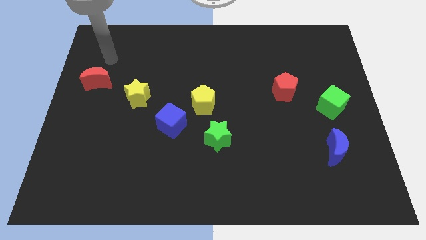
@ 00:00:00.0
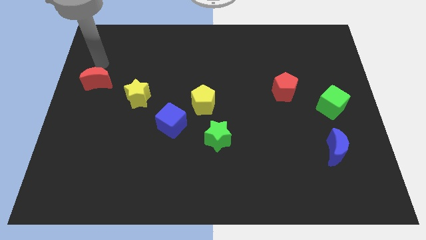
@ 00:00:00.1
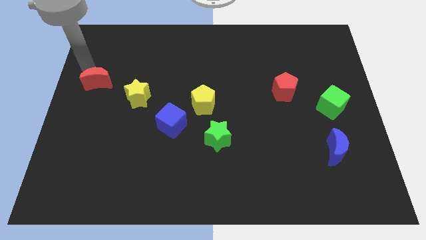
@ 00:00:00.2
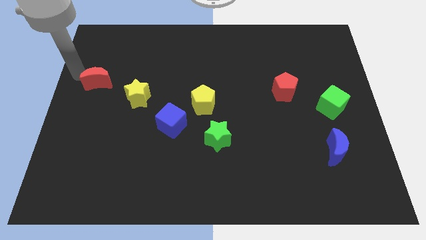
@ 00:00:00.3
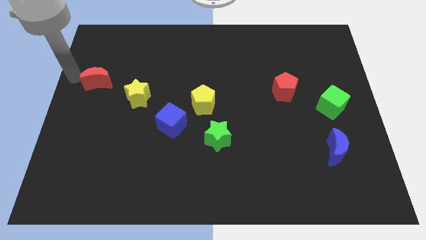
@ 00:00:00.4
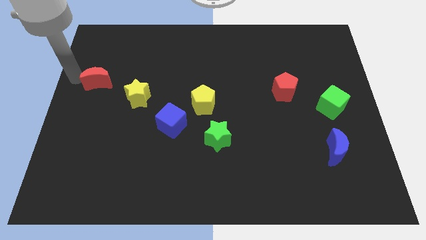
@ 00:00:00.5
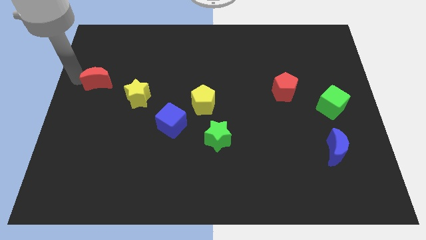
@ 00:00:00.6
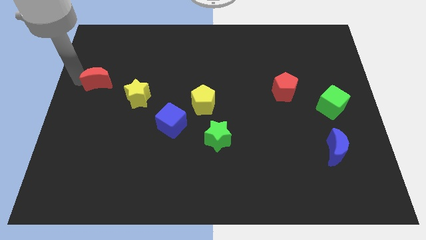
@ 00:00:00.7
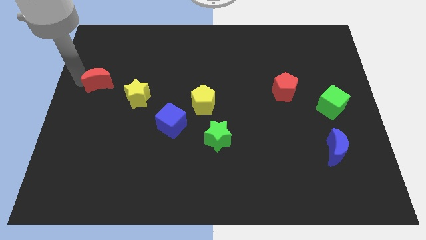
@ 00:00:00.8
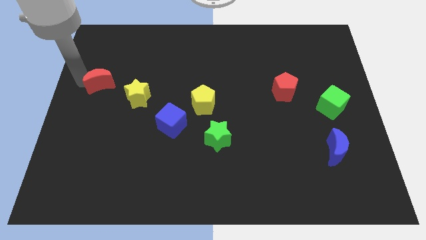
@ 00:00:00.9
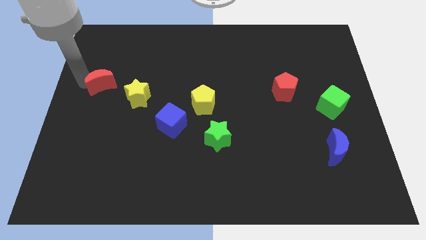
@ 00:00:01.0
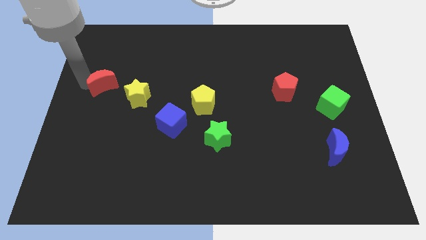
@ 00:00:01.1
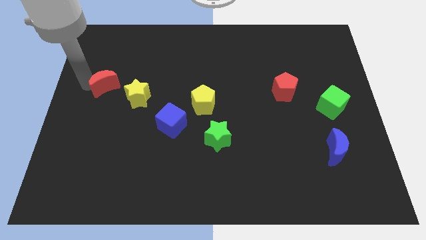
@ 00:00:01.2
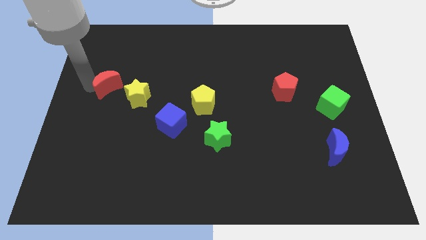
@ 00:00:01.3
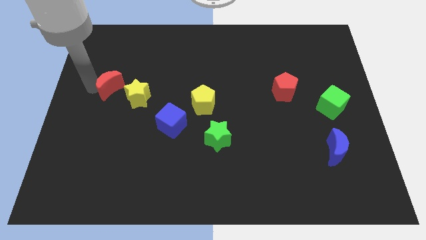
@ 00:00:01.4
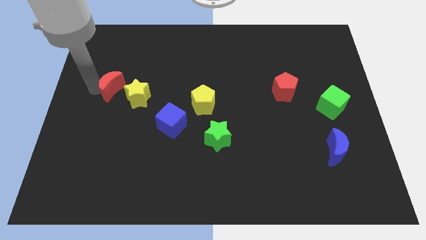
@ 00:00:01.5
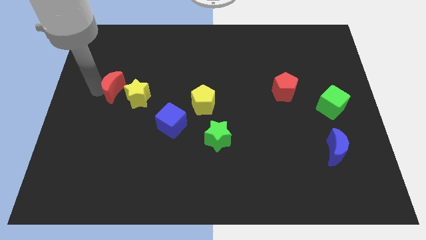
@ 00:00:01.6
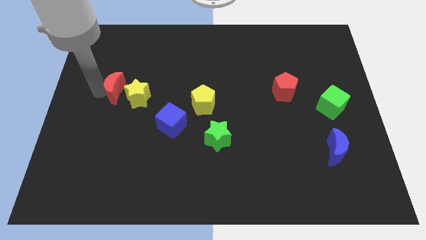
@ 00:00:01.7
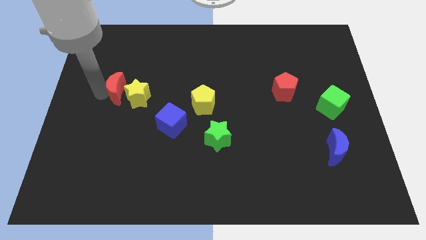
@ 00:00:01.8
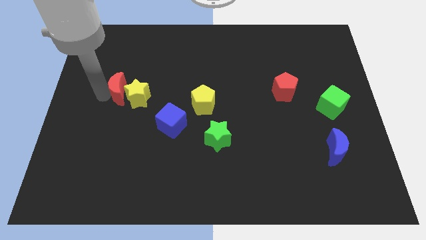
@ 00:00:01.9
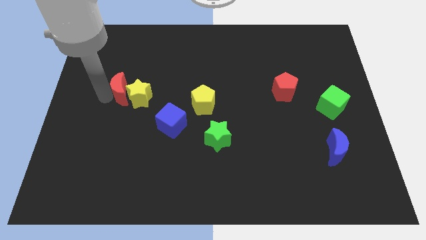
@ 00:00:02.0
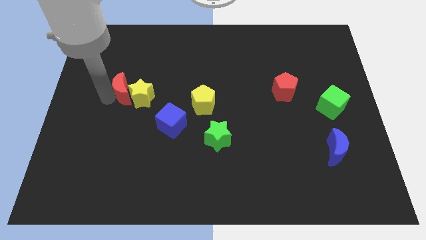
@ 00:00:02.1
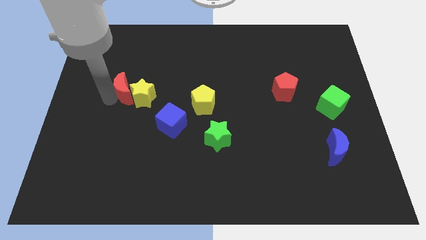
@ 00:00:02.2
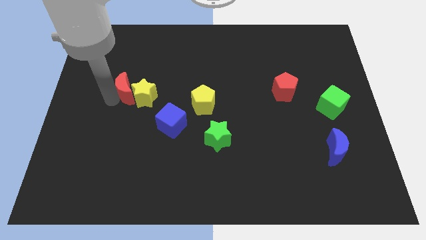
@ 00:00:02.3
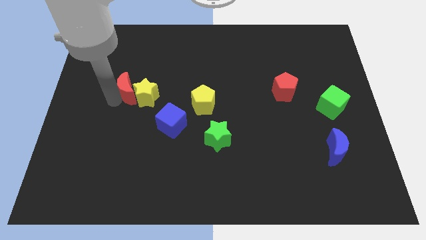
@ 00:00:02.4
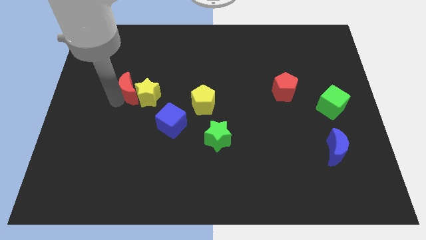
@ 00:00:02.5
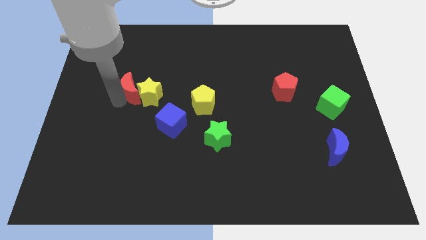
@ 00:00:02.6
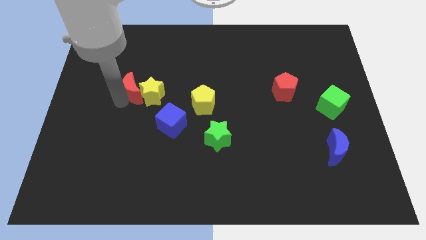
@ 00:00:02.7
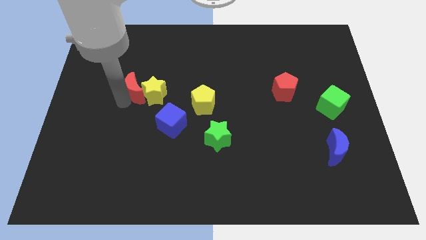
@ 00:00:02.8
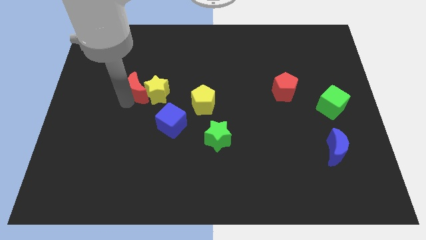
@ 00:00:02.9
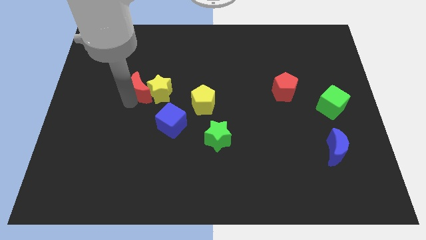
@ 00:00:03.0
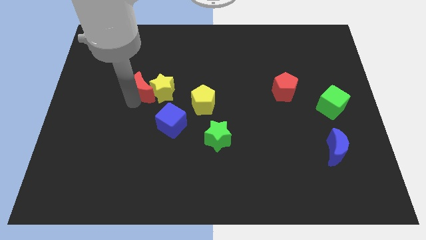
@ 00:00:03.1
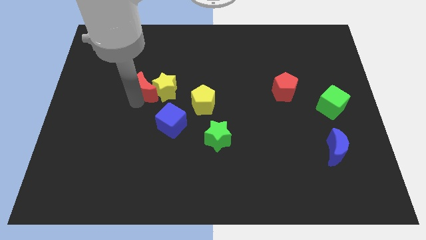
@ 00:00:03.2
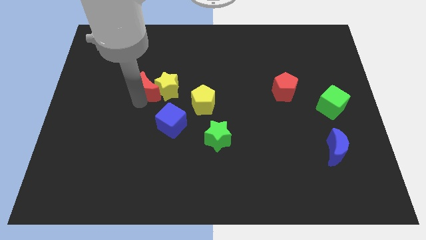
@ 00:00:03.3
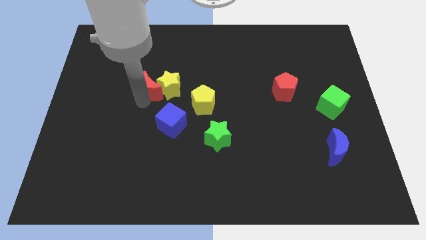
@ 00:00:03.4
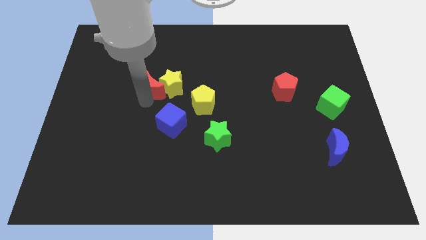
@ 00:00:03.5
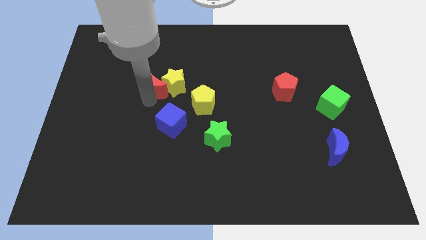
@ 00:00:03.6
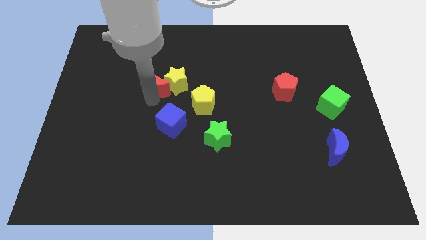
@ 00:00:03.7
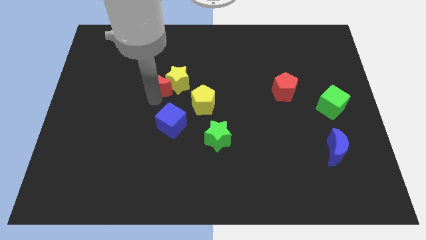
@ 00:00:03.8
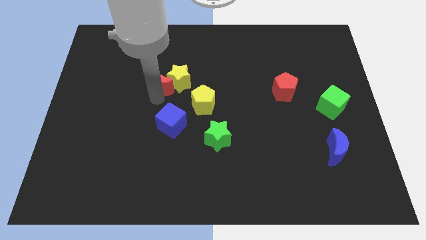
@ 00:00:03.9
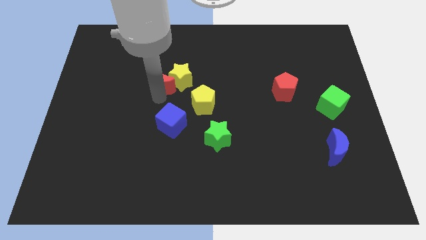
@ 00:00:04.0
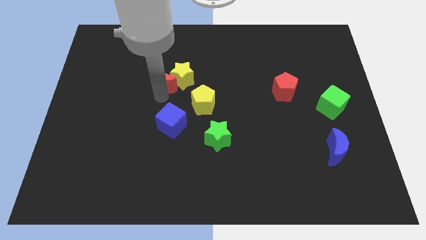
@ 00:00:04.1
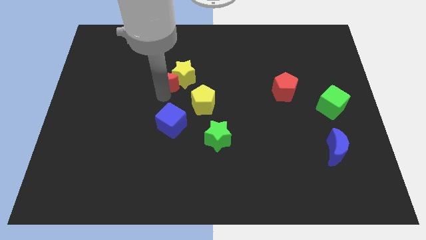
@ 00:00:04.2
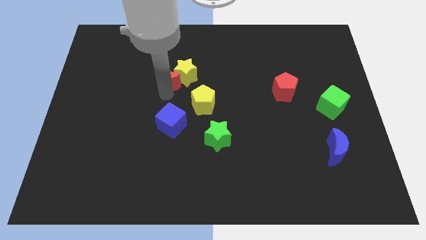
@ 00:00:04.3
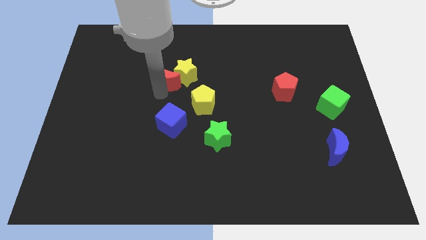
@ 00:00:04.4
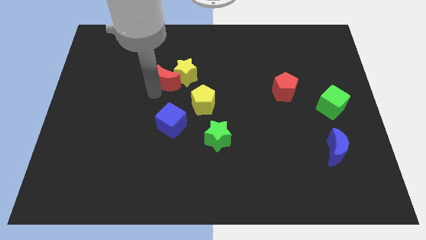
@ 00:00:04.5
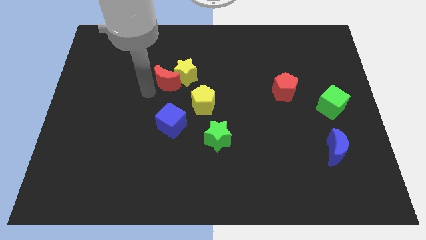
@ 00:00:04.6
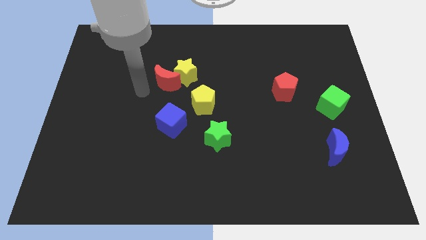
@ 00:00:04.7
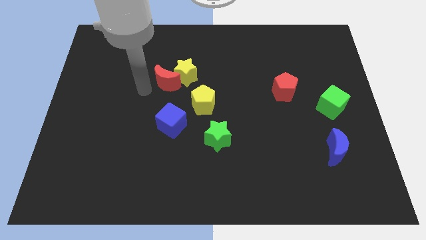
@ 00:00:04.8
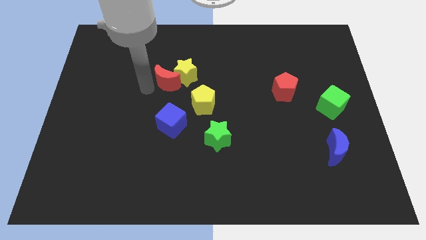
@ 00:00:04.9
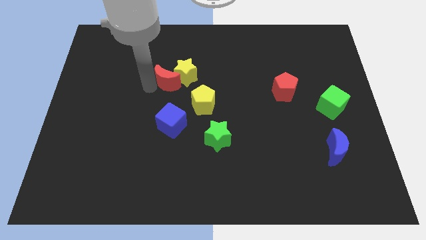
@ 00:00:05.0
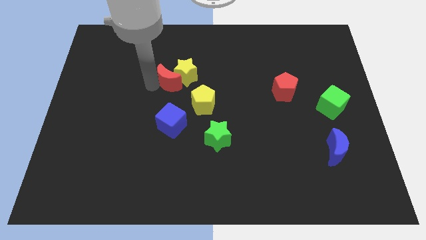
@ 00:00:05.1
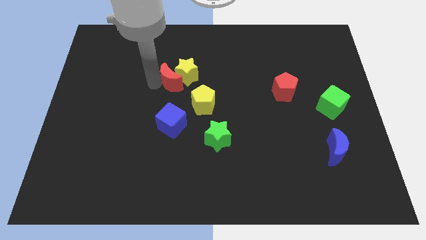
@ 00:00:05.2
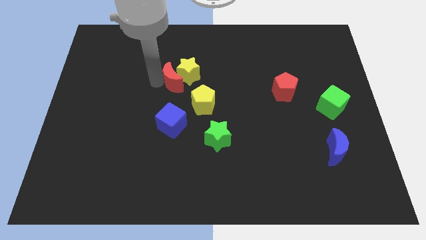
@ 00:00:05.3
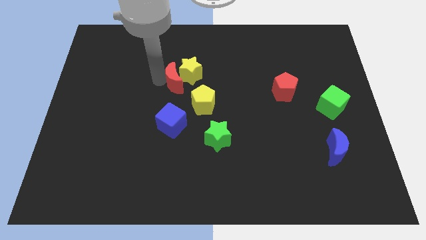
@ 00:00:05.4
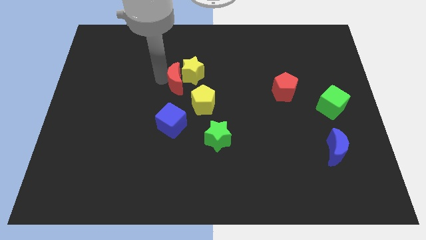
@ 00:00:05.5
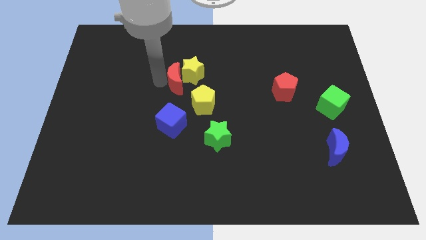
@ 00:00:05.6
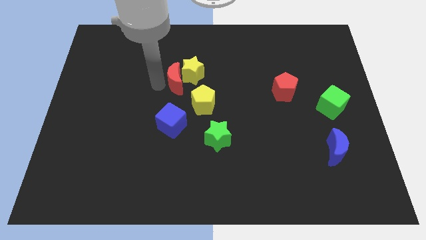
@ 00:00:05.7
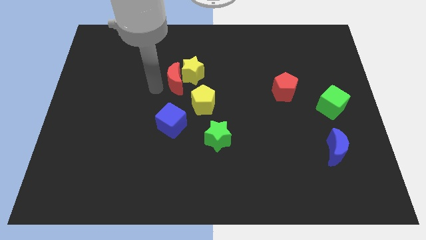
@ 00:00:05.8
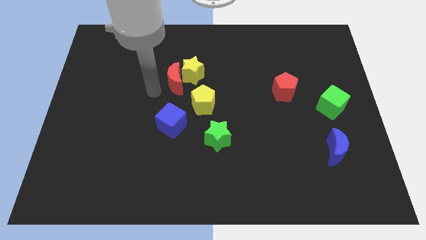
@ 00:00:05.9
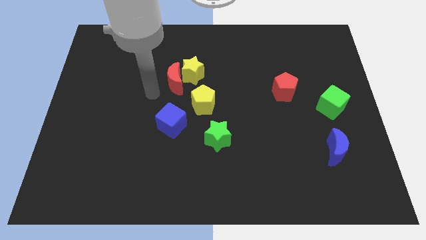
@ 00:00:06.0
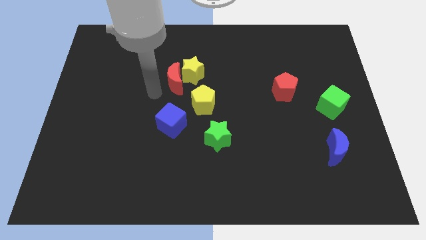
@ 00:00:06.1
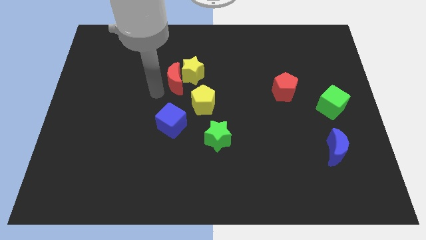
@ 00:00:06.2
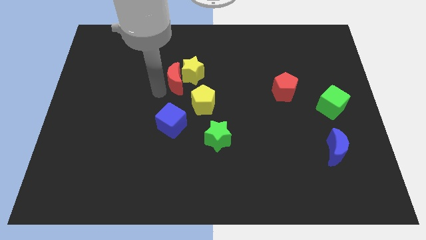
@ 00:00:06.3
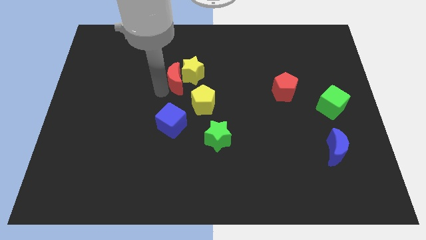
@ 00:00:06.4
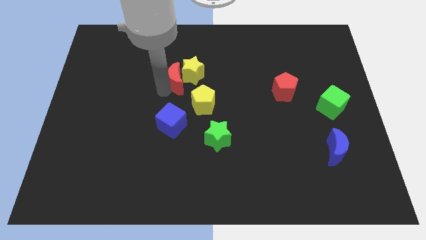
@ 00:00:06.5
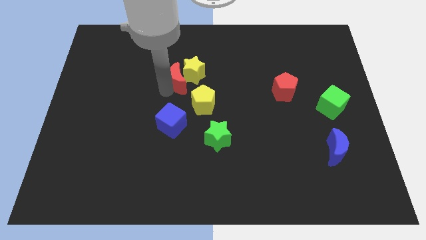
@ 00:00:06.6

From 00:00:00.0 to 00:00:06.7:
slide the red moon right

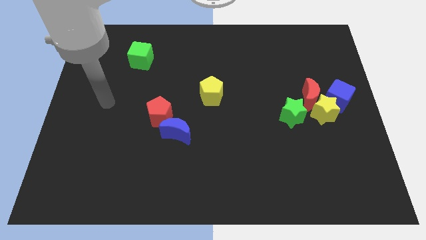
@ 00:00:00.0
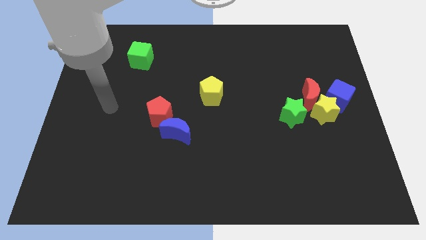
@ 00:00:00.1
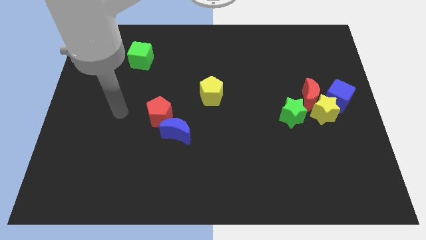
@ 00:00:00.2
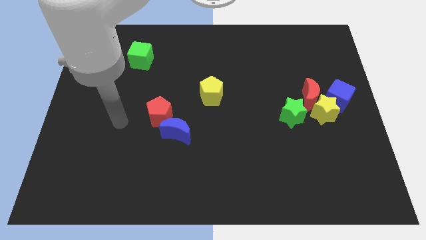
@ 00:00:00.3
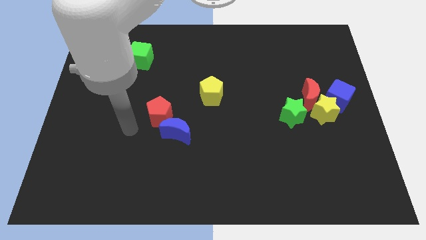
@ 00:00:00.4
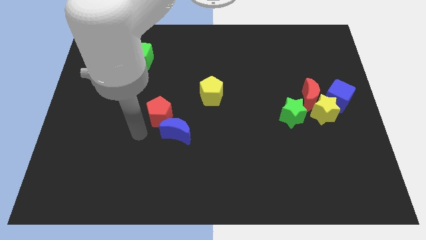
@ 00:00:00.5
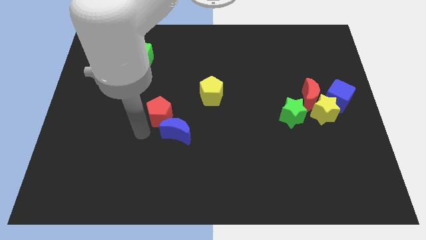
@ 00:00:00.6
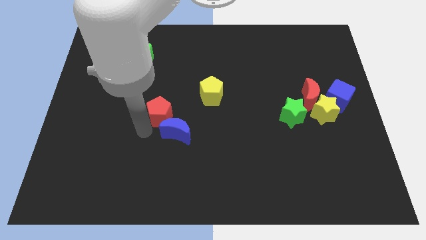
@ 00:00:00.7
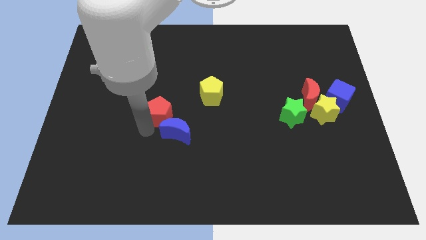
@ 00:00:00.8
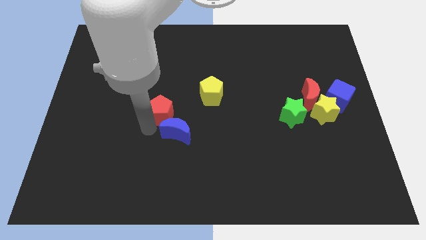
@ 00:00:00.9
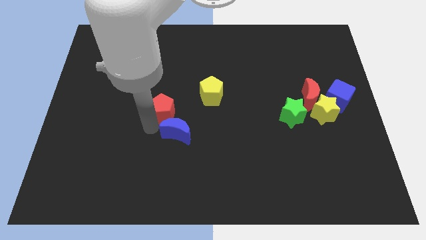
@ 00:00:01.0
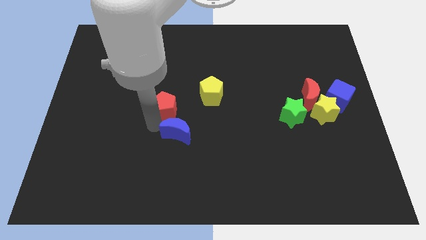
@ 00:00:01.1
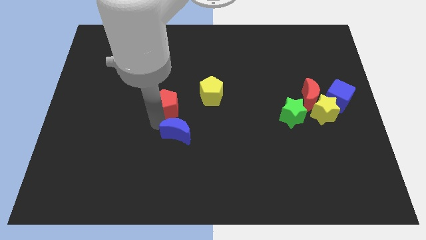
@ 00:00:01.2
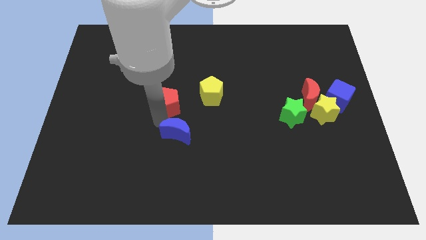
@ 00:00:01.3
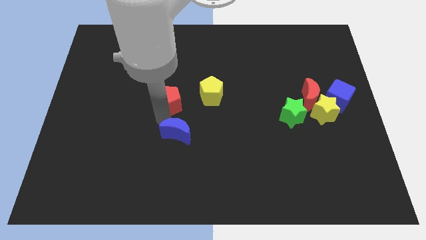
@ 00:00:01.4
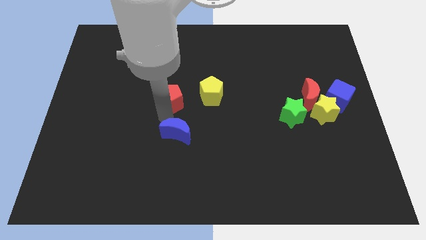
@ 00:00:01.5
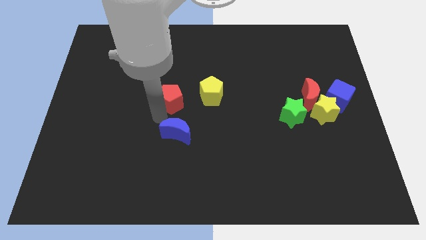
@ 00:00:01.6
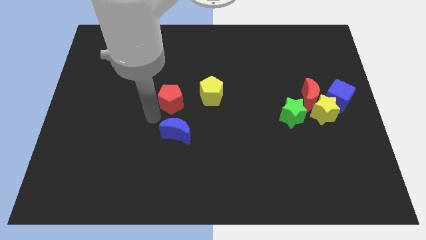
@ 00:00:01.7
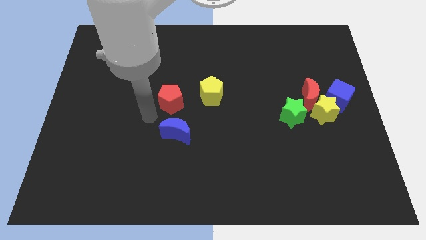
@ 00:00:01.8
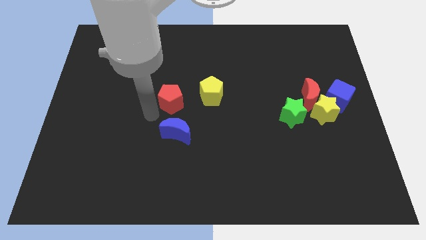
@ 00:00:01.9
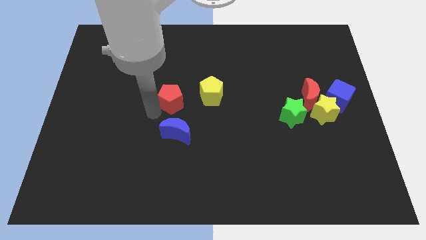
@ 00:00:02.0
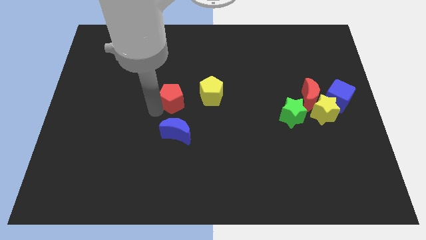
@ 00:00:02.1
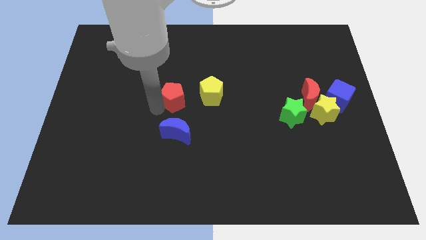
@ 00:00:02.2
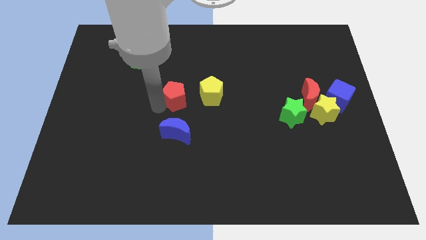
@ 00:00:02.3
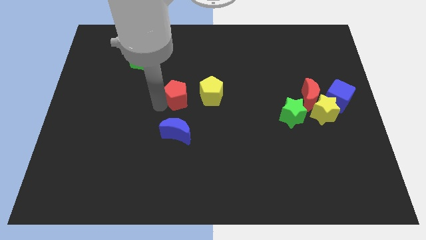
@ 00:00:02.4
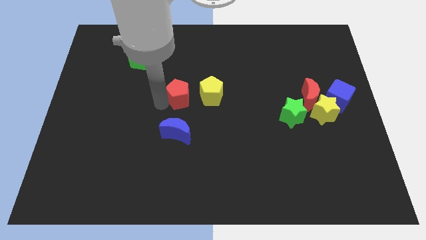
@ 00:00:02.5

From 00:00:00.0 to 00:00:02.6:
move the red pentagon upwards and then to the right a bit
